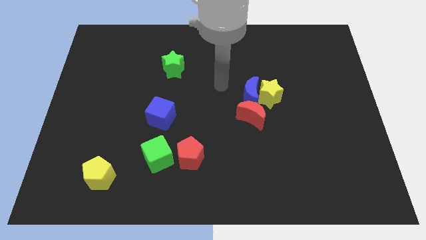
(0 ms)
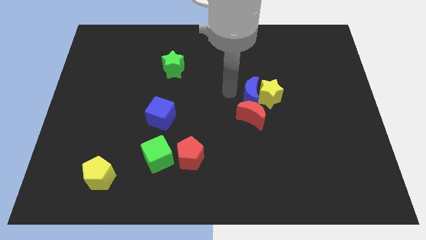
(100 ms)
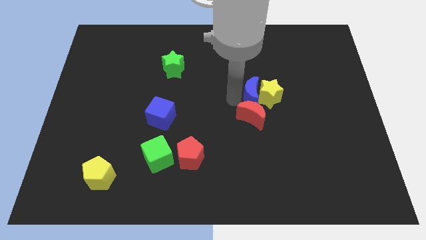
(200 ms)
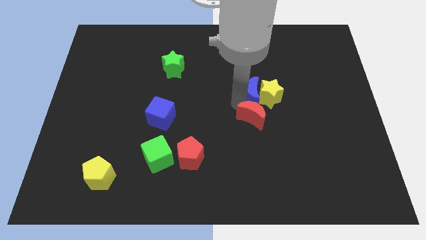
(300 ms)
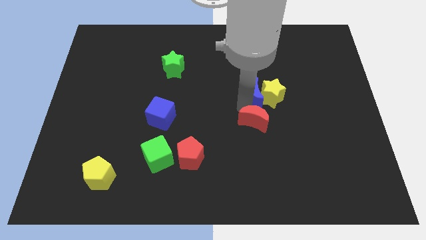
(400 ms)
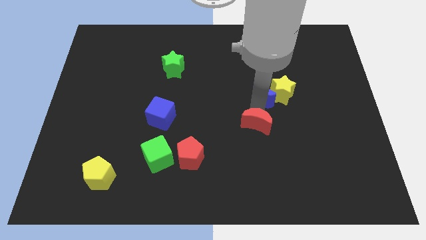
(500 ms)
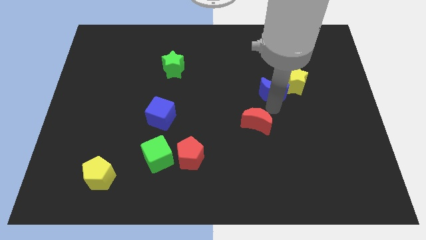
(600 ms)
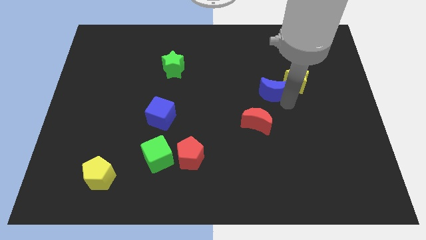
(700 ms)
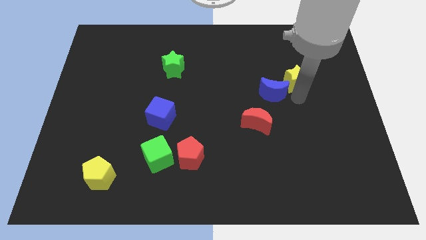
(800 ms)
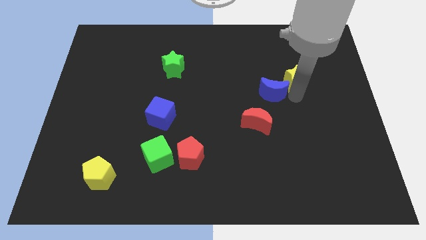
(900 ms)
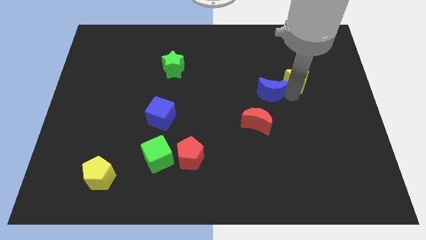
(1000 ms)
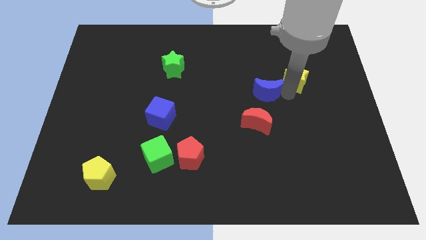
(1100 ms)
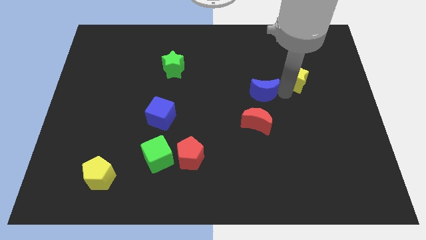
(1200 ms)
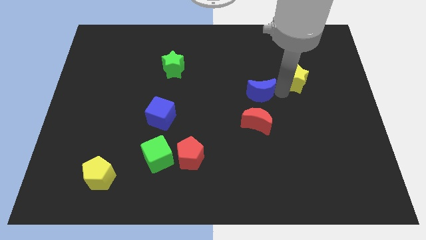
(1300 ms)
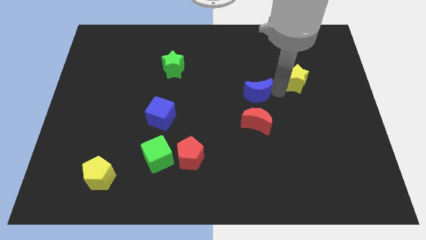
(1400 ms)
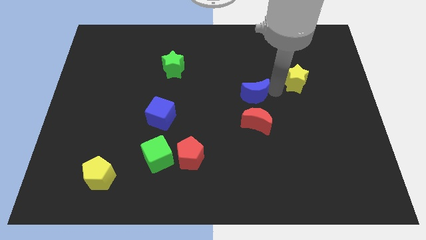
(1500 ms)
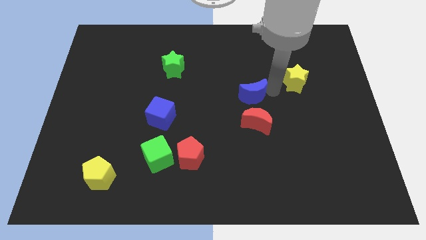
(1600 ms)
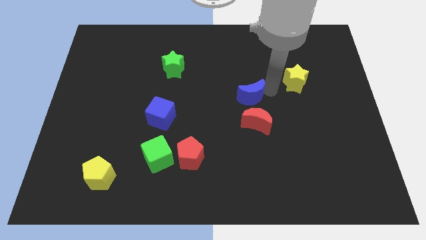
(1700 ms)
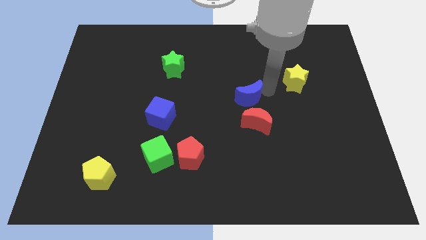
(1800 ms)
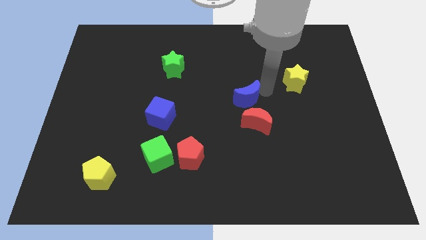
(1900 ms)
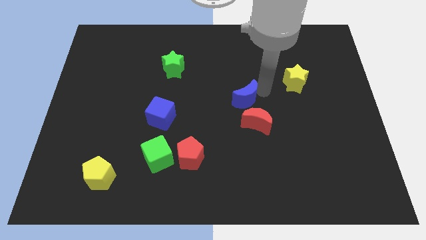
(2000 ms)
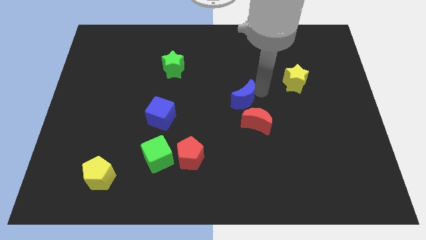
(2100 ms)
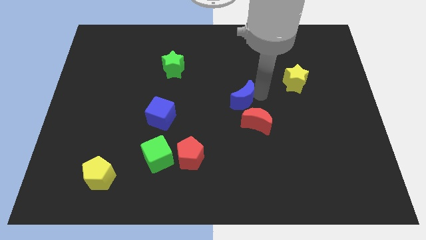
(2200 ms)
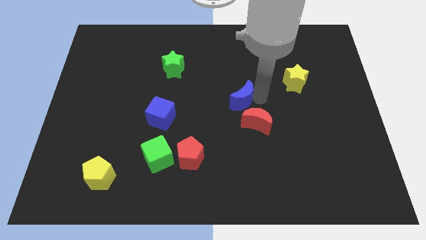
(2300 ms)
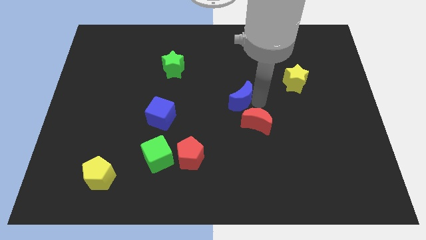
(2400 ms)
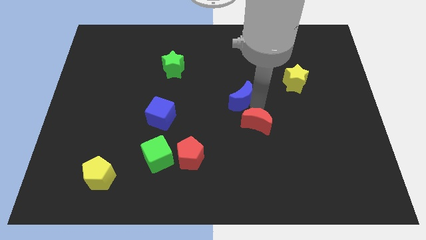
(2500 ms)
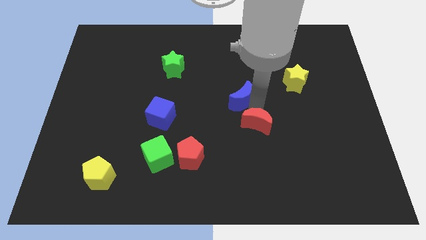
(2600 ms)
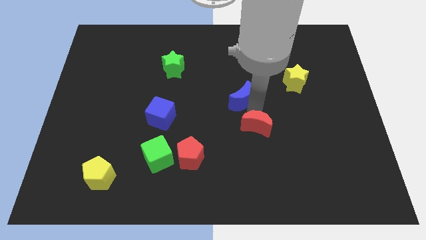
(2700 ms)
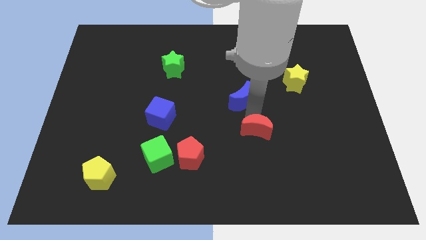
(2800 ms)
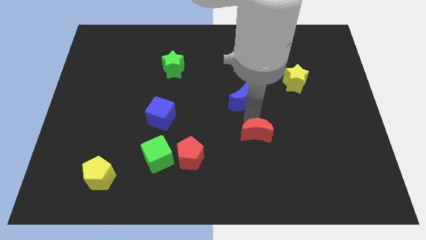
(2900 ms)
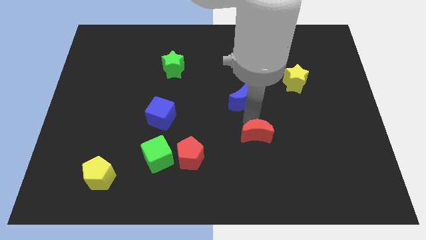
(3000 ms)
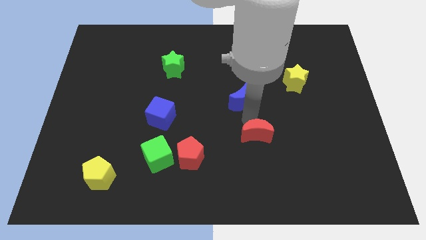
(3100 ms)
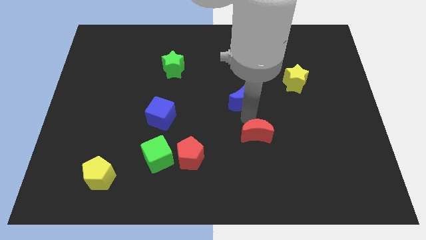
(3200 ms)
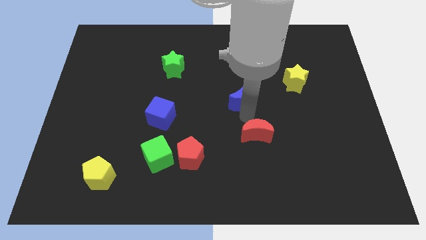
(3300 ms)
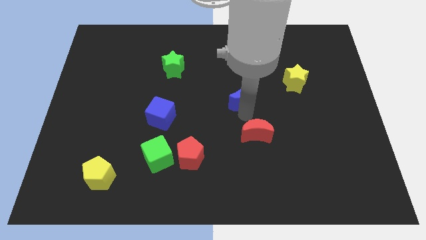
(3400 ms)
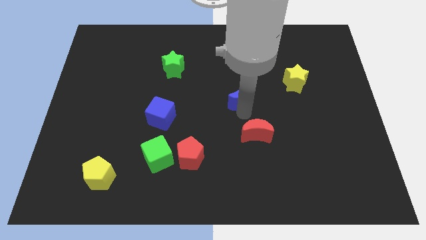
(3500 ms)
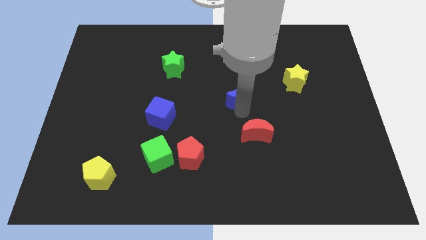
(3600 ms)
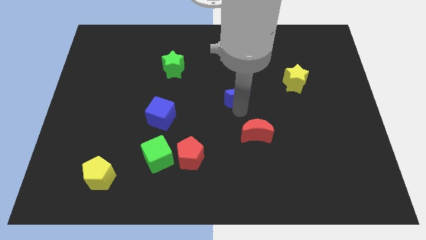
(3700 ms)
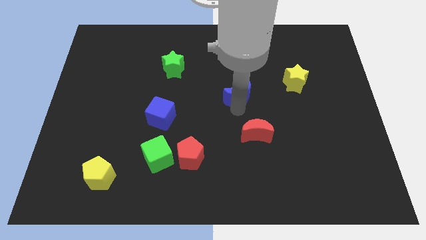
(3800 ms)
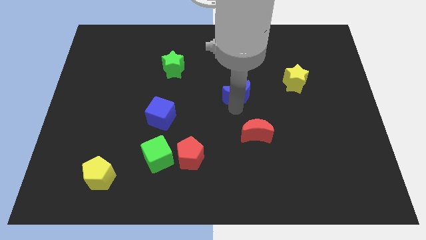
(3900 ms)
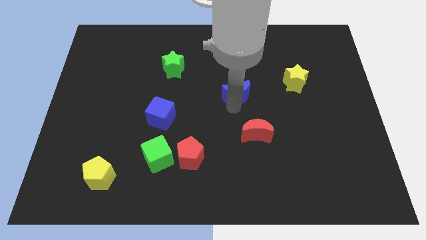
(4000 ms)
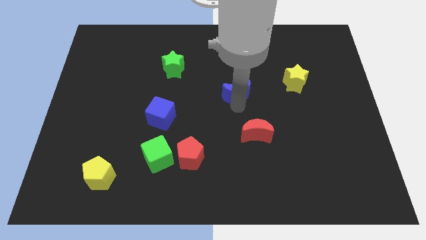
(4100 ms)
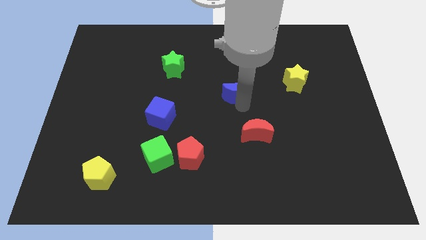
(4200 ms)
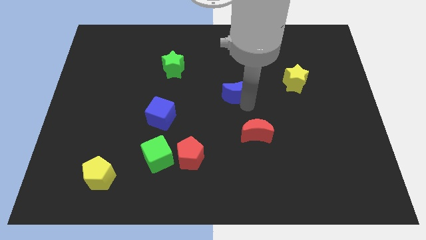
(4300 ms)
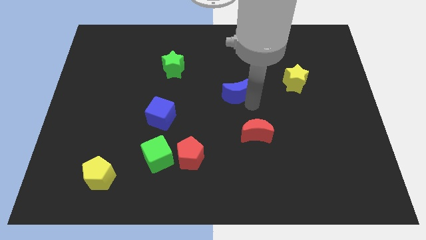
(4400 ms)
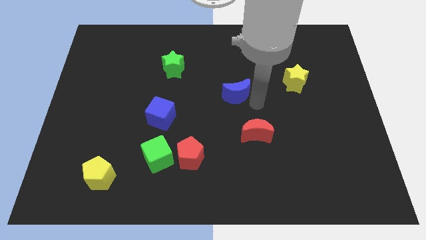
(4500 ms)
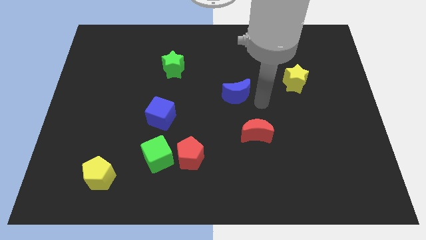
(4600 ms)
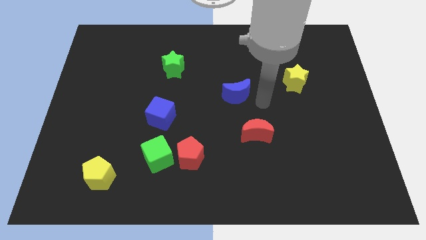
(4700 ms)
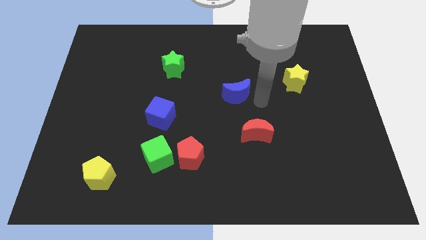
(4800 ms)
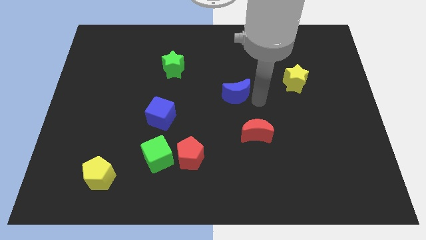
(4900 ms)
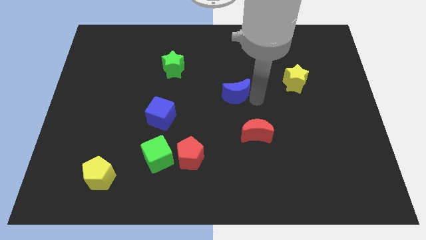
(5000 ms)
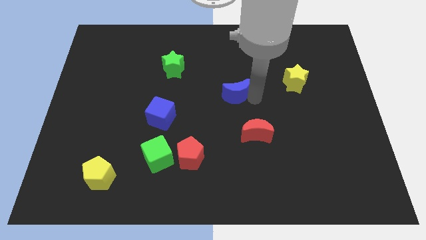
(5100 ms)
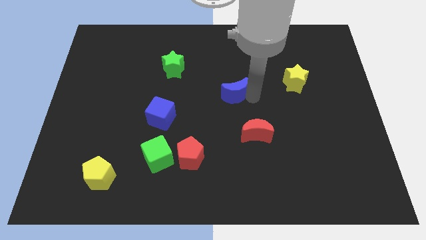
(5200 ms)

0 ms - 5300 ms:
pull the blue moon apart from the yellow star and red moon

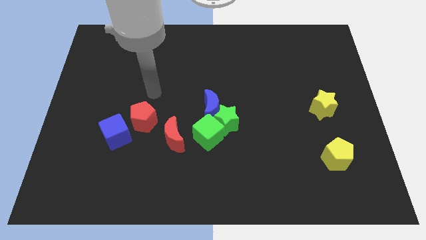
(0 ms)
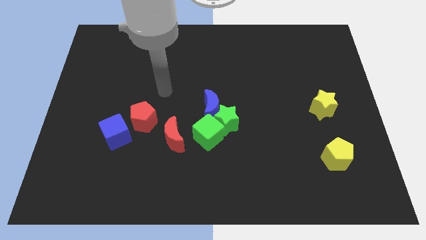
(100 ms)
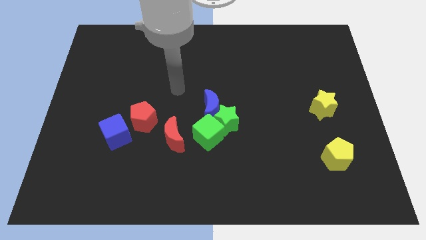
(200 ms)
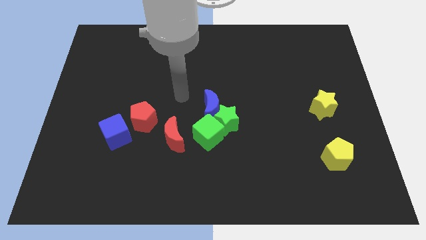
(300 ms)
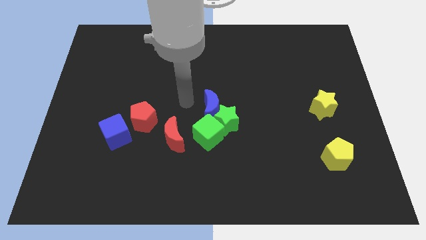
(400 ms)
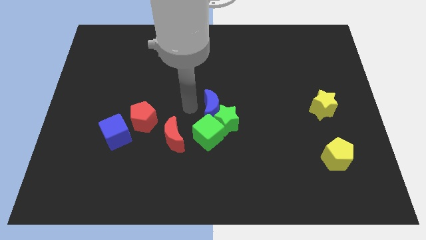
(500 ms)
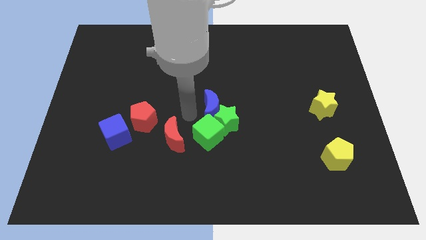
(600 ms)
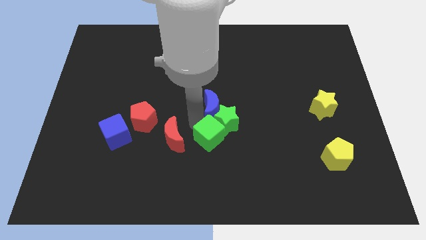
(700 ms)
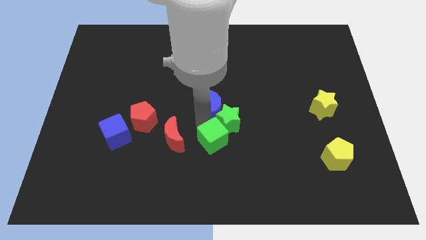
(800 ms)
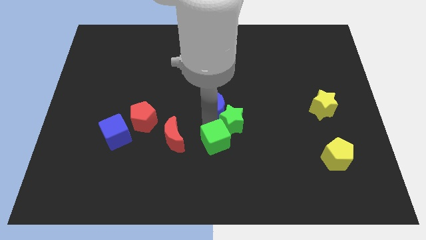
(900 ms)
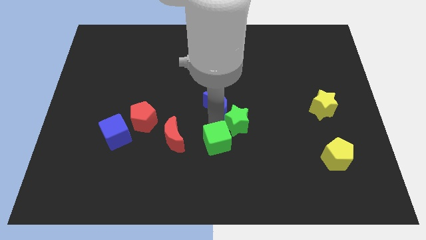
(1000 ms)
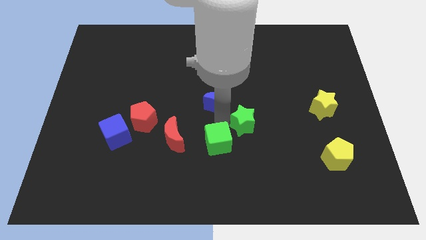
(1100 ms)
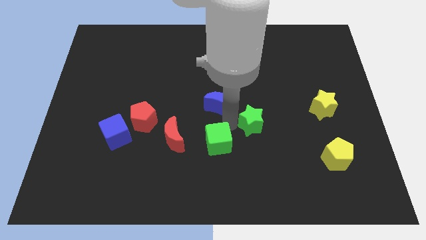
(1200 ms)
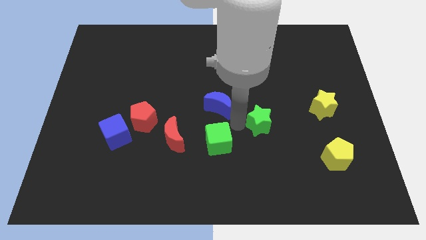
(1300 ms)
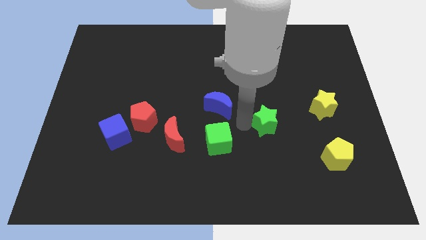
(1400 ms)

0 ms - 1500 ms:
pull the green star apart from the blue moon and green cube

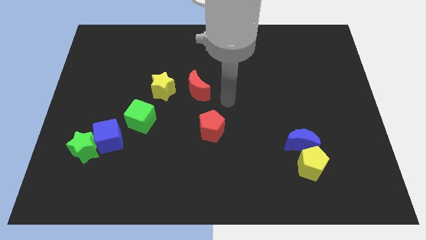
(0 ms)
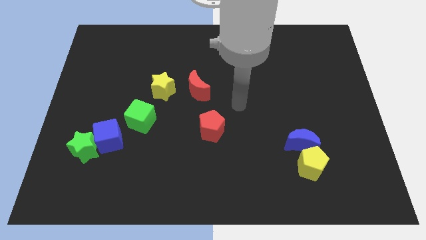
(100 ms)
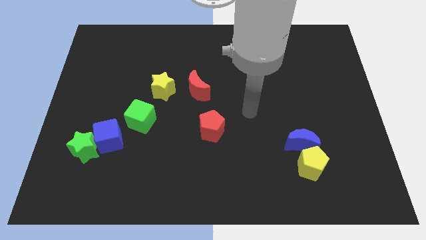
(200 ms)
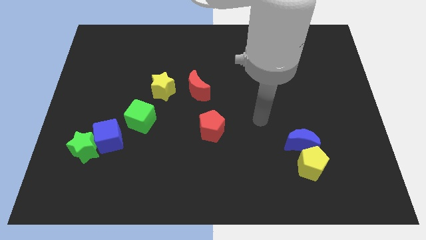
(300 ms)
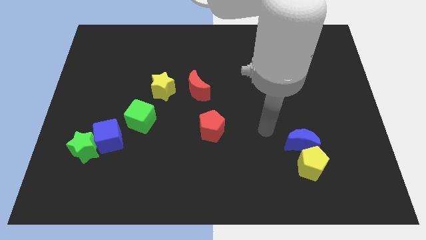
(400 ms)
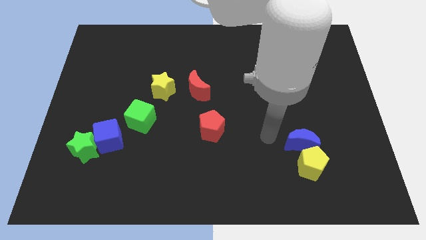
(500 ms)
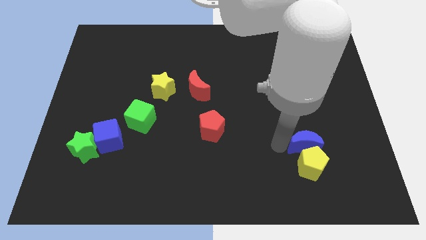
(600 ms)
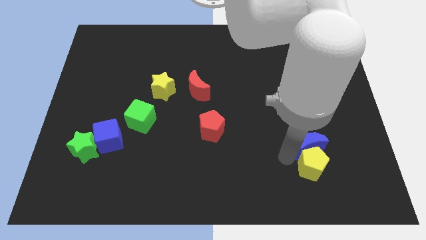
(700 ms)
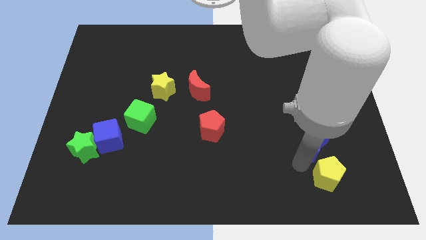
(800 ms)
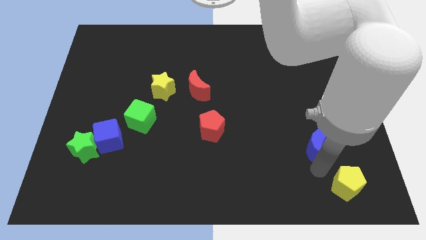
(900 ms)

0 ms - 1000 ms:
move the blue moon away from the yellow pentagon

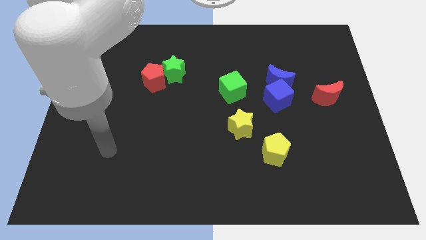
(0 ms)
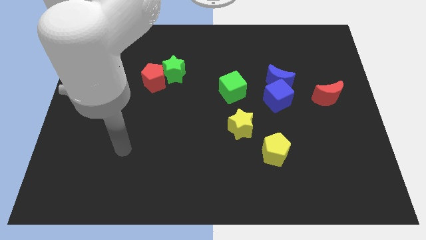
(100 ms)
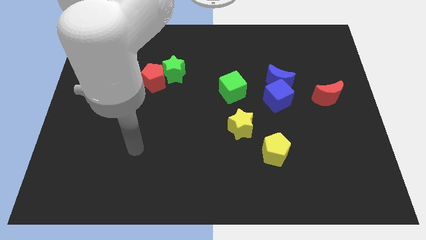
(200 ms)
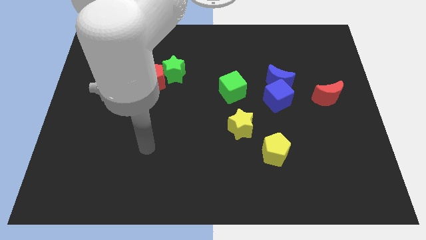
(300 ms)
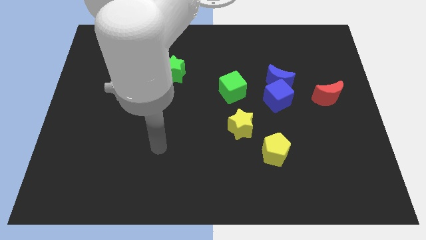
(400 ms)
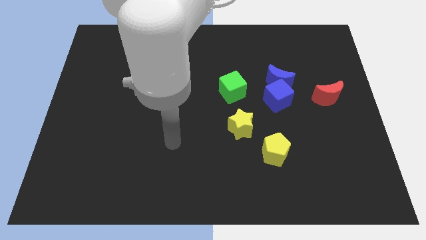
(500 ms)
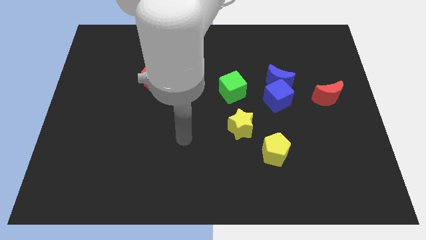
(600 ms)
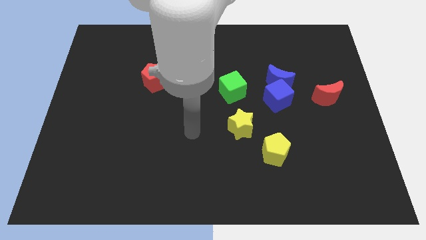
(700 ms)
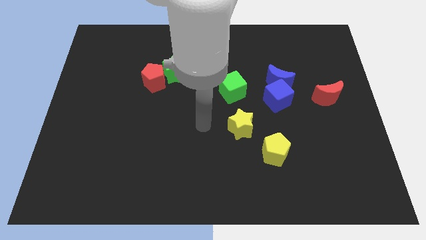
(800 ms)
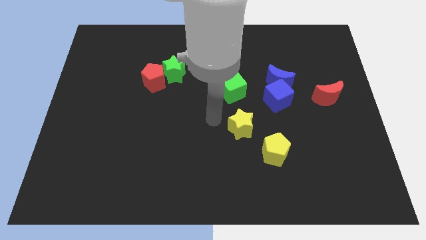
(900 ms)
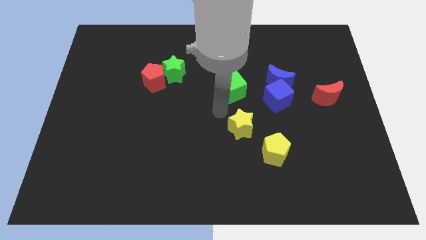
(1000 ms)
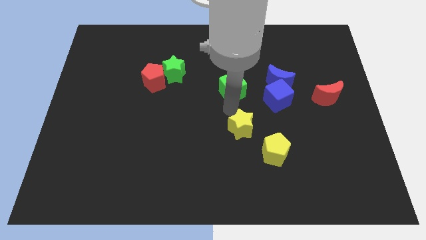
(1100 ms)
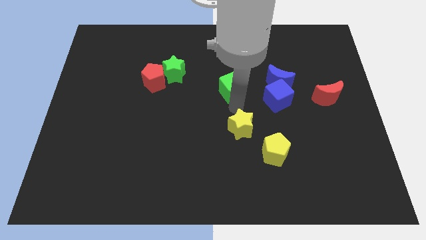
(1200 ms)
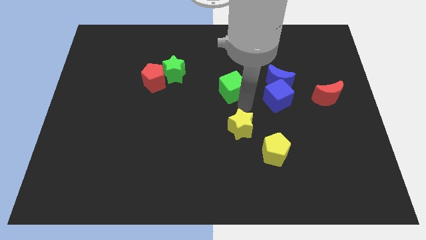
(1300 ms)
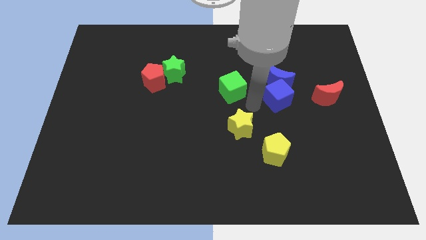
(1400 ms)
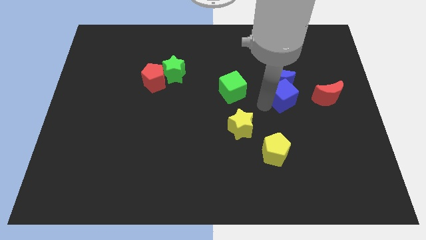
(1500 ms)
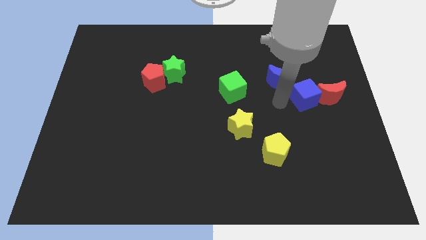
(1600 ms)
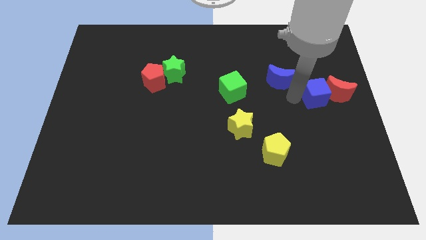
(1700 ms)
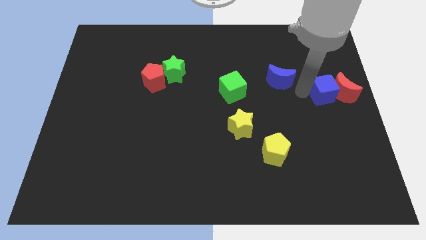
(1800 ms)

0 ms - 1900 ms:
separate the blue moon from the blue cube
